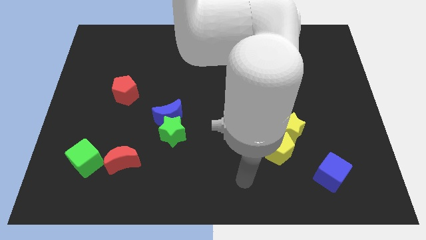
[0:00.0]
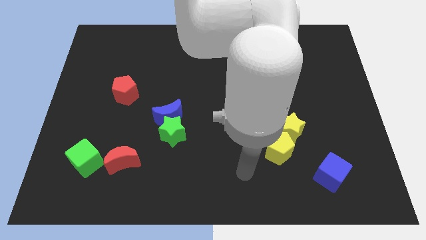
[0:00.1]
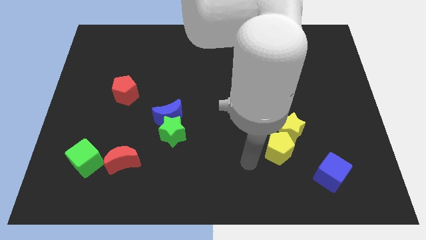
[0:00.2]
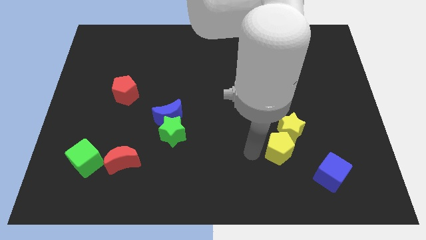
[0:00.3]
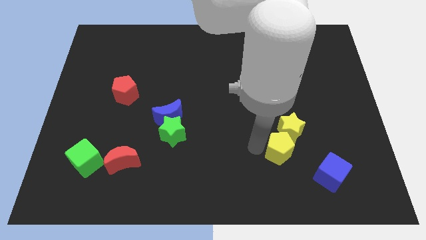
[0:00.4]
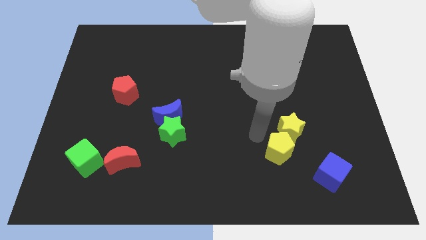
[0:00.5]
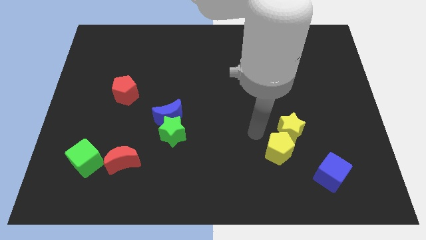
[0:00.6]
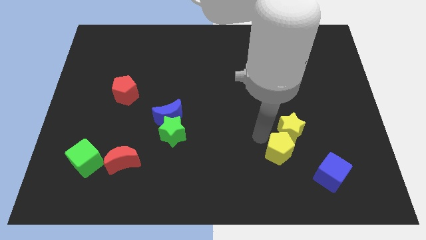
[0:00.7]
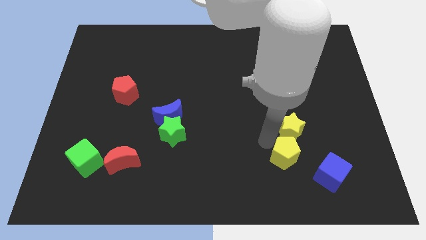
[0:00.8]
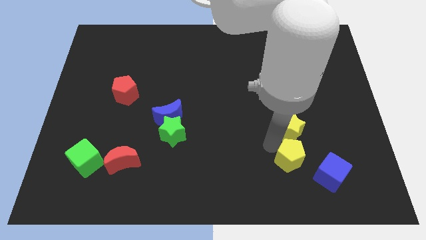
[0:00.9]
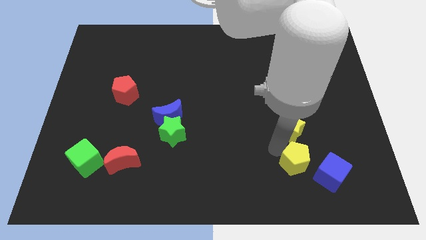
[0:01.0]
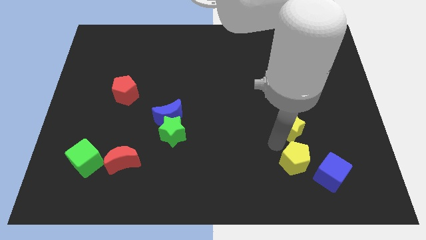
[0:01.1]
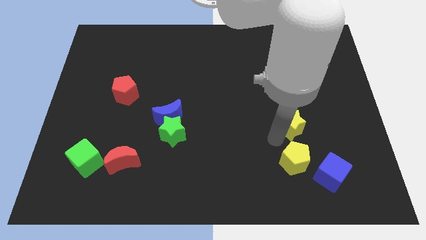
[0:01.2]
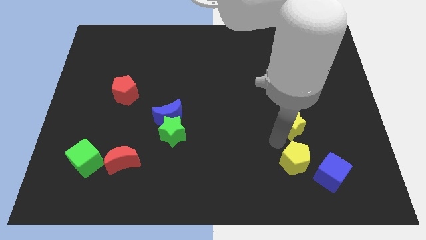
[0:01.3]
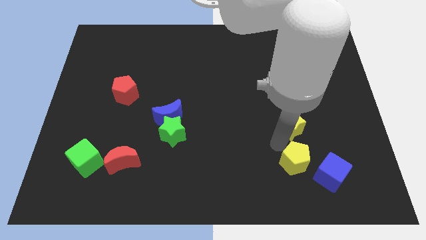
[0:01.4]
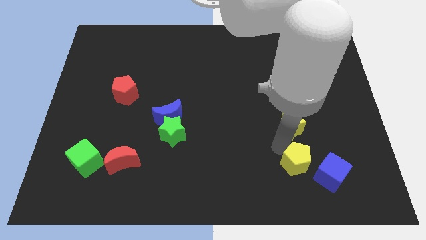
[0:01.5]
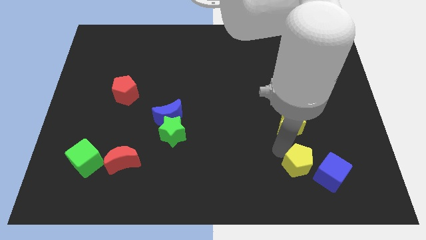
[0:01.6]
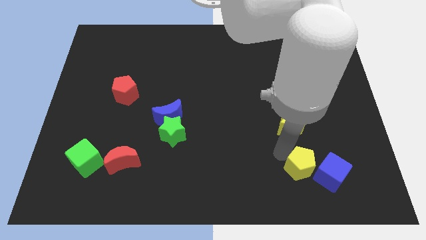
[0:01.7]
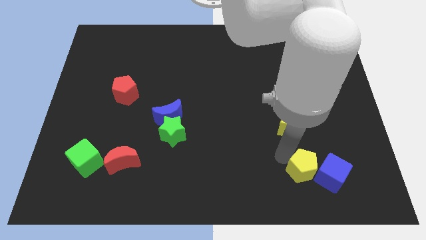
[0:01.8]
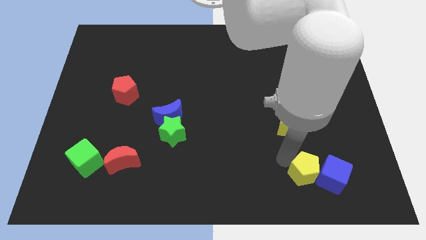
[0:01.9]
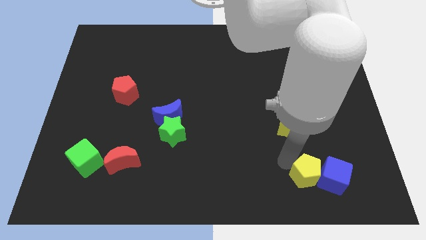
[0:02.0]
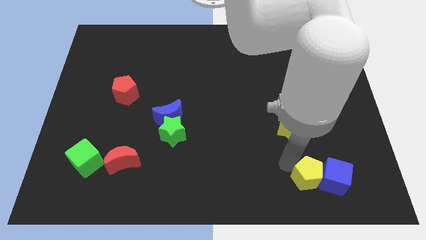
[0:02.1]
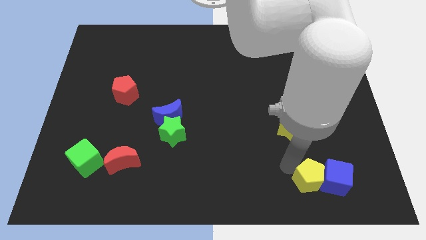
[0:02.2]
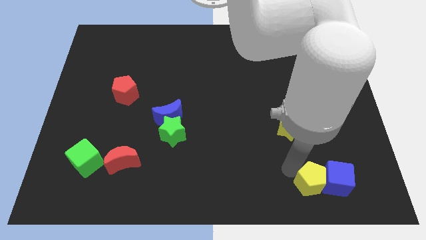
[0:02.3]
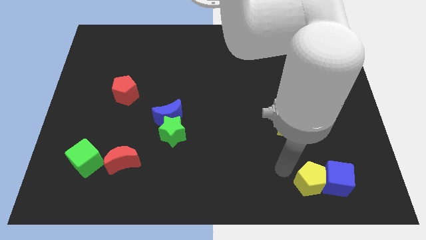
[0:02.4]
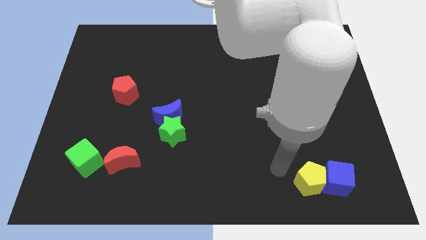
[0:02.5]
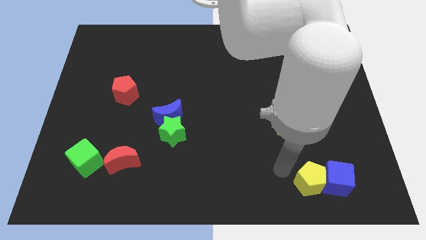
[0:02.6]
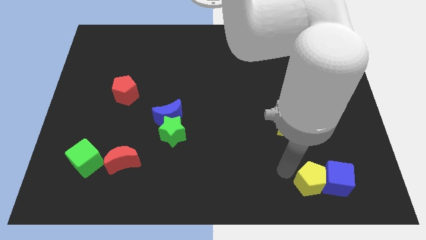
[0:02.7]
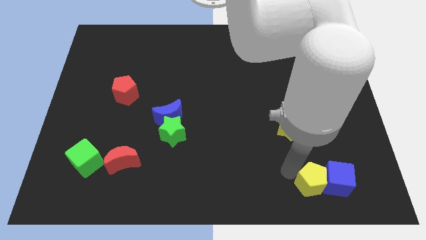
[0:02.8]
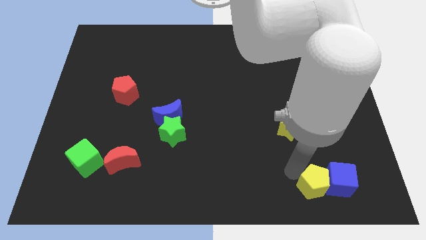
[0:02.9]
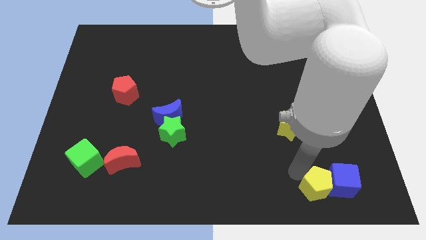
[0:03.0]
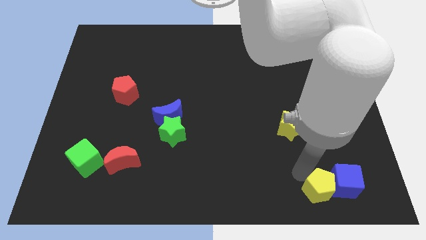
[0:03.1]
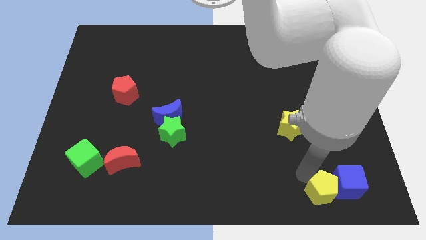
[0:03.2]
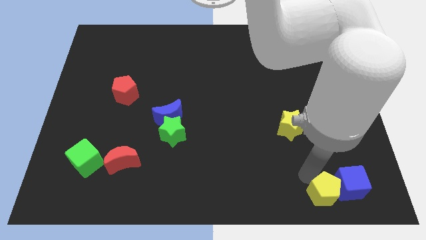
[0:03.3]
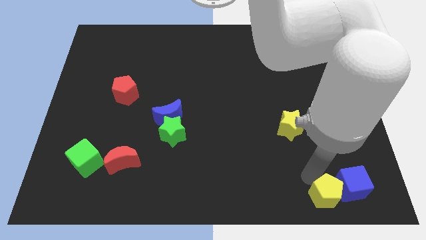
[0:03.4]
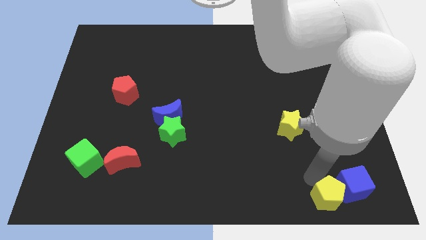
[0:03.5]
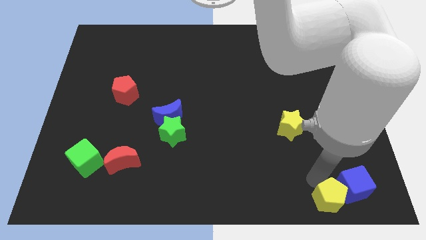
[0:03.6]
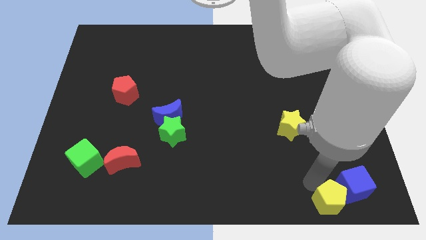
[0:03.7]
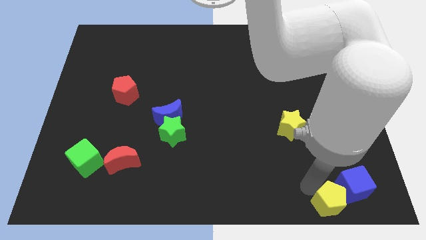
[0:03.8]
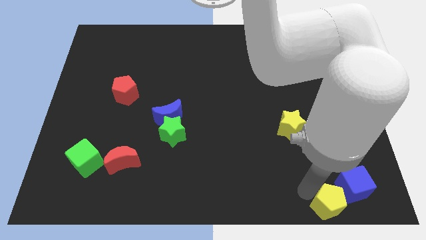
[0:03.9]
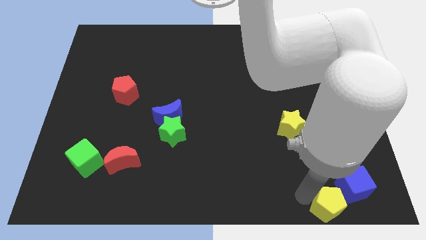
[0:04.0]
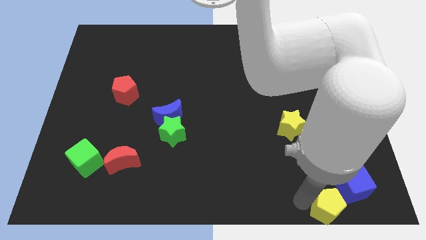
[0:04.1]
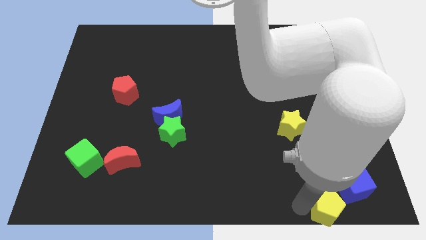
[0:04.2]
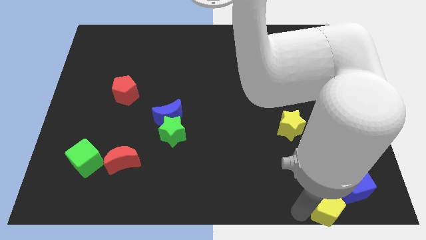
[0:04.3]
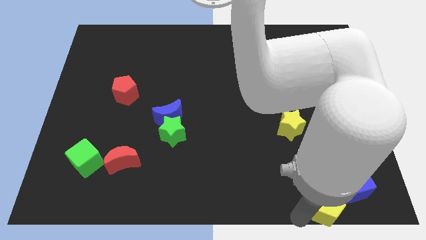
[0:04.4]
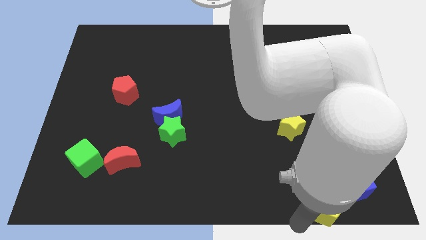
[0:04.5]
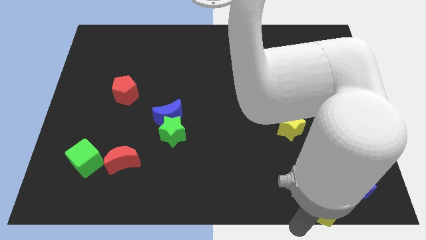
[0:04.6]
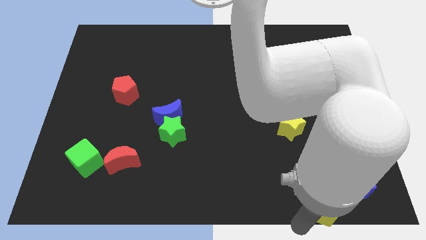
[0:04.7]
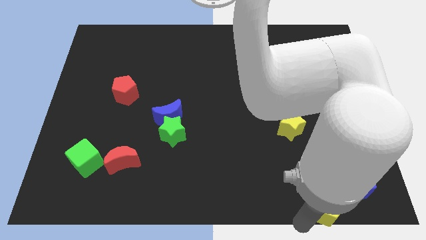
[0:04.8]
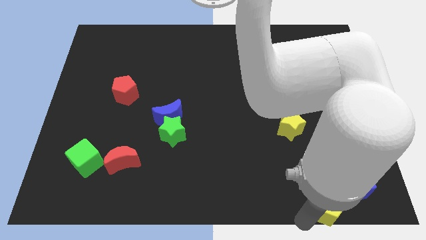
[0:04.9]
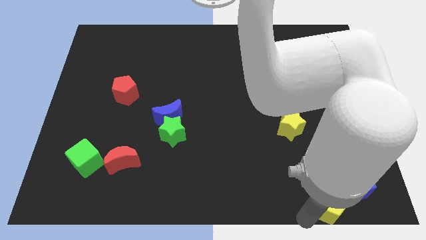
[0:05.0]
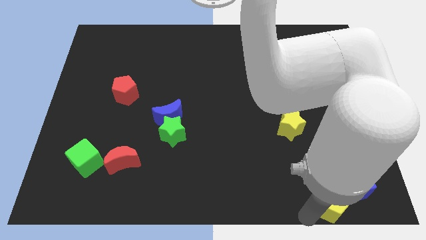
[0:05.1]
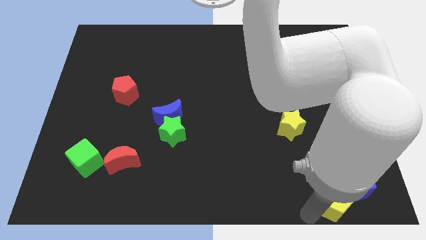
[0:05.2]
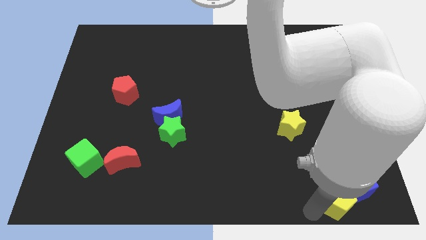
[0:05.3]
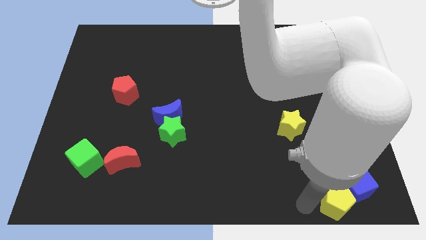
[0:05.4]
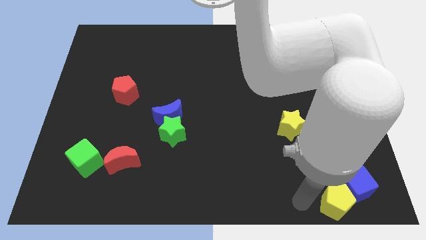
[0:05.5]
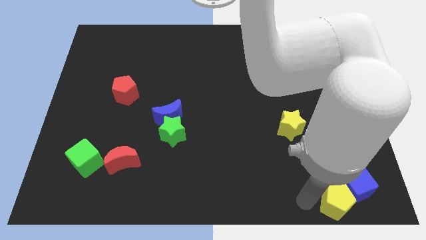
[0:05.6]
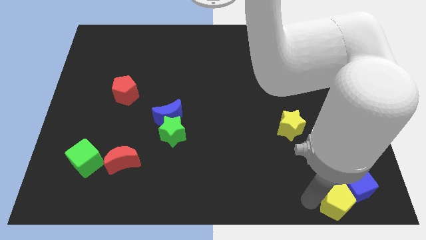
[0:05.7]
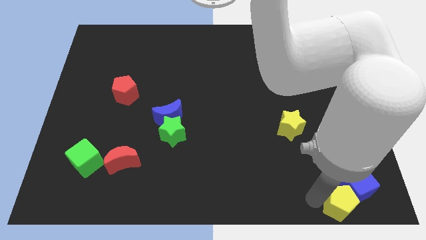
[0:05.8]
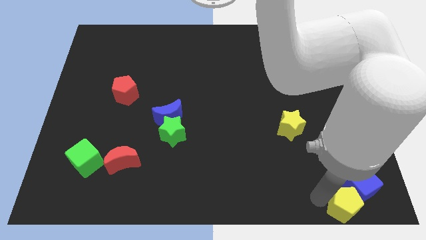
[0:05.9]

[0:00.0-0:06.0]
slide the yellow pentagon to the bottom right
